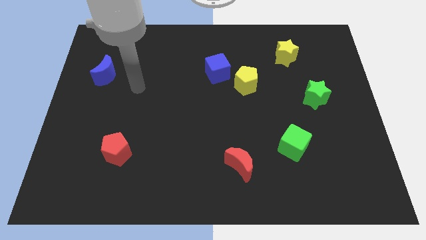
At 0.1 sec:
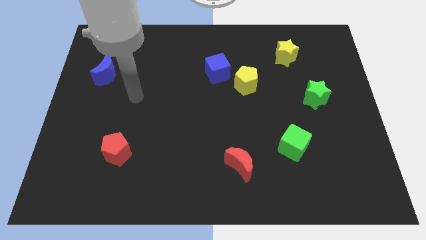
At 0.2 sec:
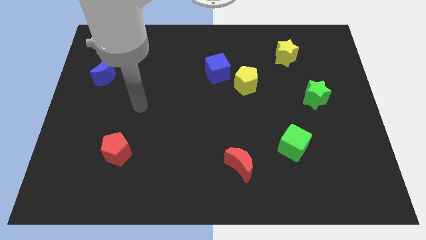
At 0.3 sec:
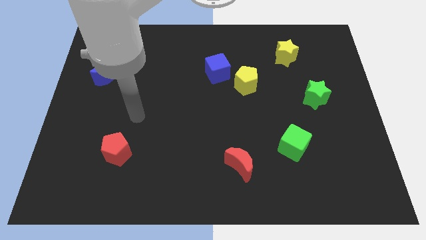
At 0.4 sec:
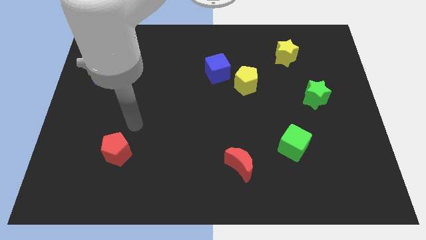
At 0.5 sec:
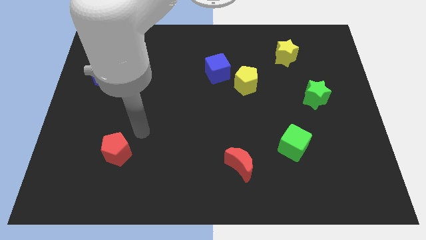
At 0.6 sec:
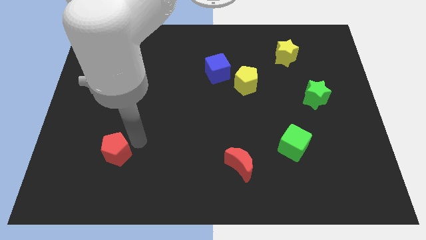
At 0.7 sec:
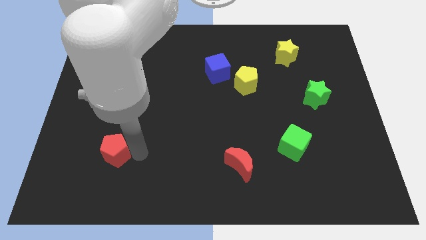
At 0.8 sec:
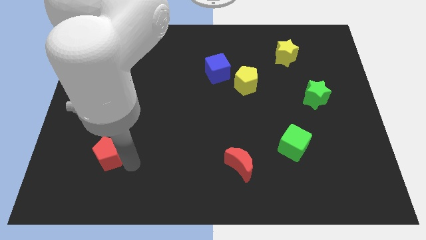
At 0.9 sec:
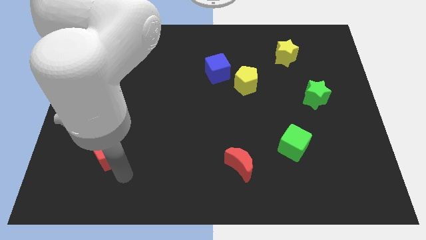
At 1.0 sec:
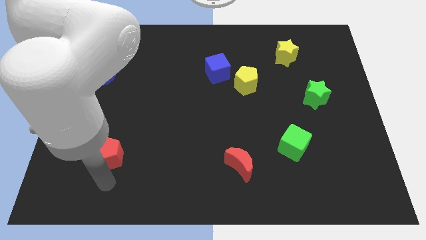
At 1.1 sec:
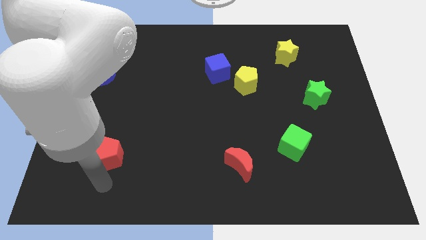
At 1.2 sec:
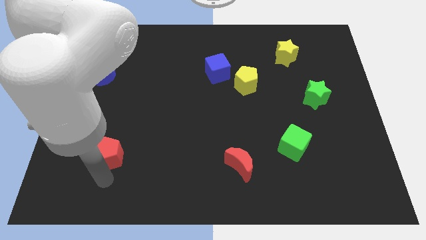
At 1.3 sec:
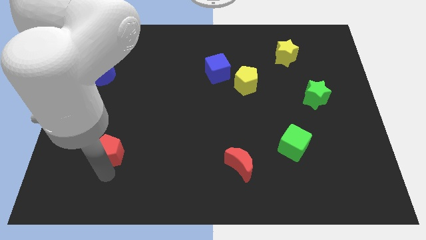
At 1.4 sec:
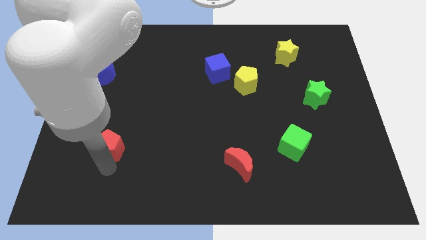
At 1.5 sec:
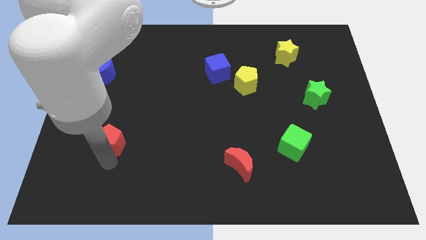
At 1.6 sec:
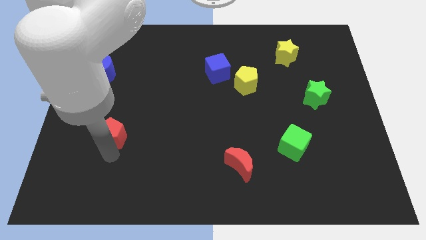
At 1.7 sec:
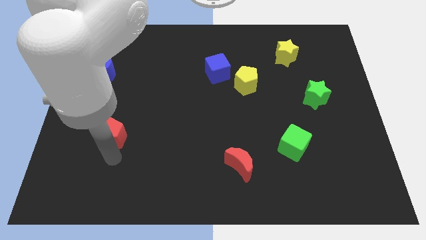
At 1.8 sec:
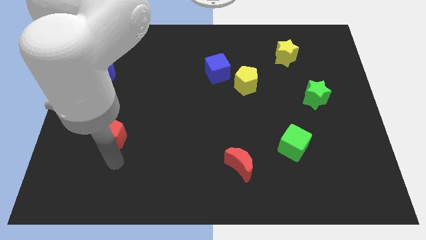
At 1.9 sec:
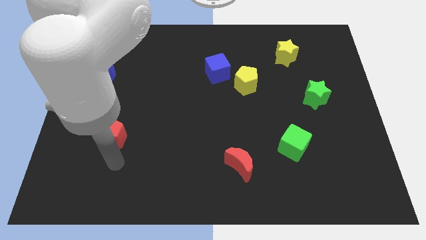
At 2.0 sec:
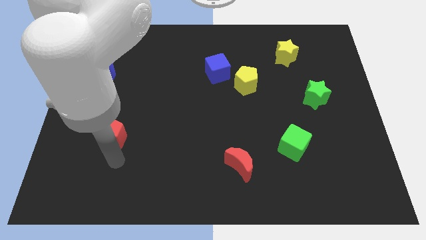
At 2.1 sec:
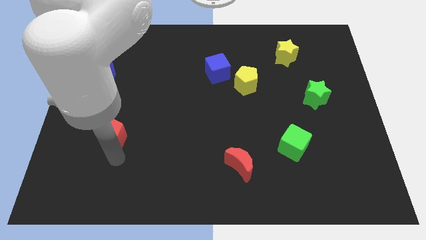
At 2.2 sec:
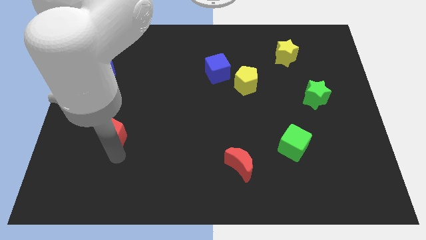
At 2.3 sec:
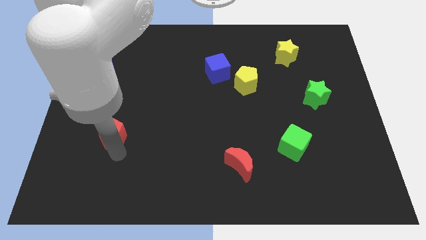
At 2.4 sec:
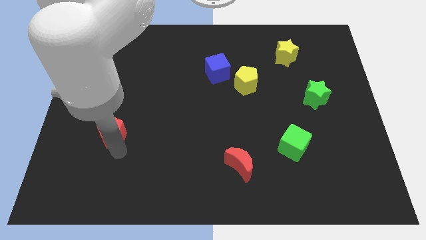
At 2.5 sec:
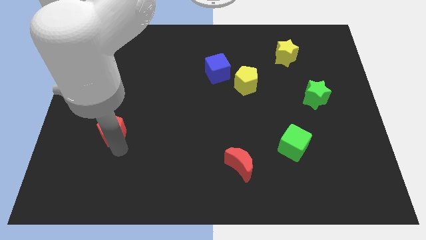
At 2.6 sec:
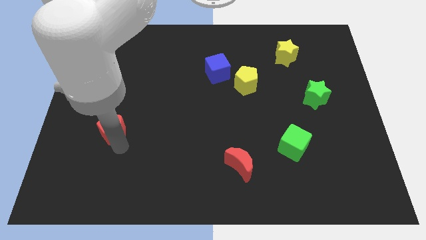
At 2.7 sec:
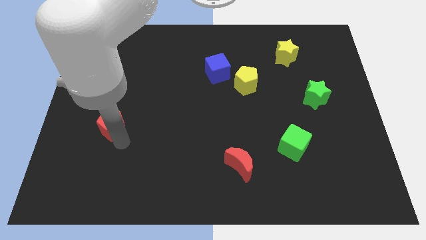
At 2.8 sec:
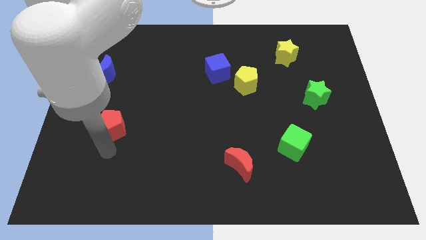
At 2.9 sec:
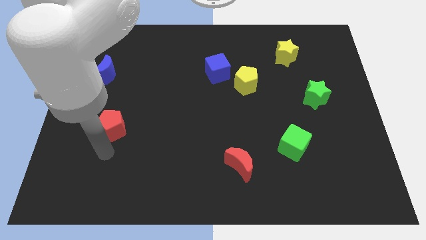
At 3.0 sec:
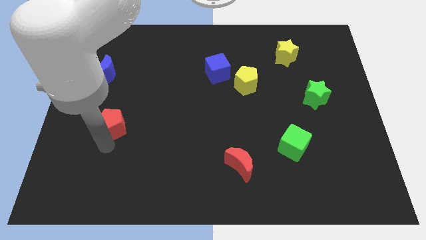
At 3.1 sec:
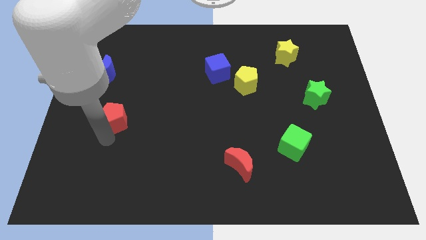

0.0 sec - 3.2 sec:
slightly push the red pentagon upwards

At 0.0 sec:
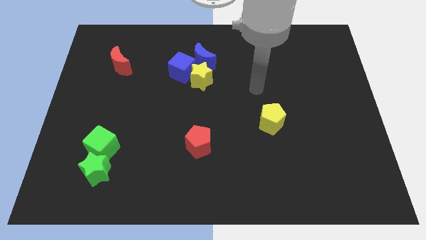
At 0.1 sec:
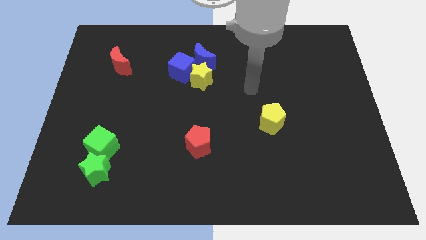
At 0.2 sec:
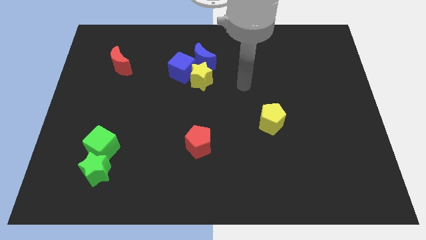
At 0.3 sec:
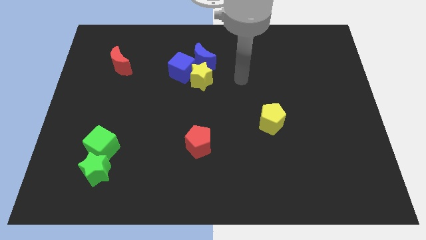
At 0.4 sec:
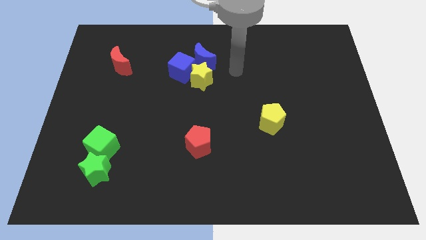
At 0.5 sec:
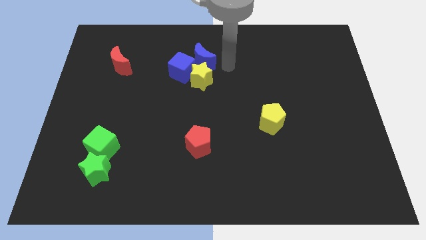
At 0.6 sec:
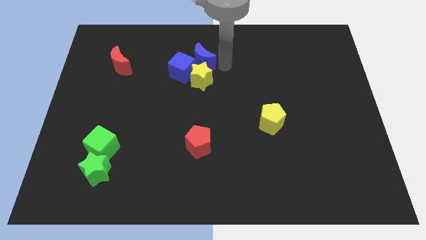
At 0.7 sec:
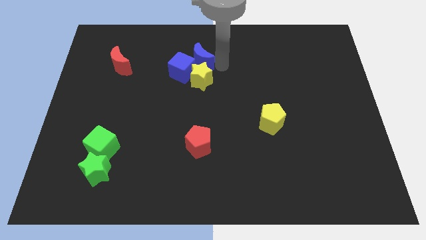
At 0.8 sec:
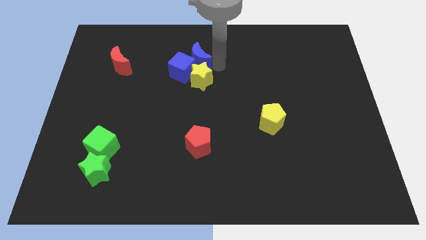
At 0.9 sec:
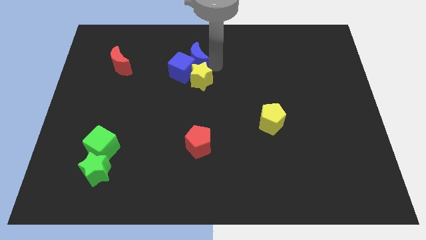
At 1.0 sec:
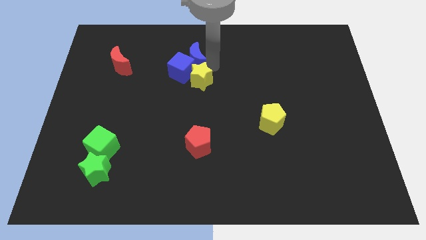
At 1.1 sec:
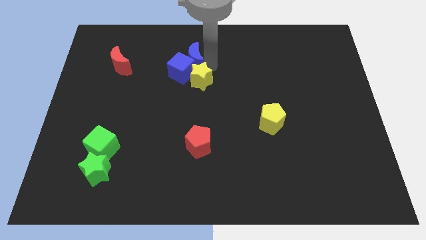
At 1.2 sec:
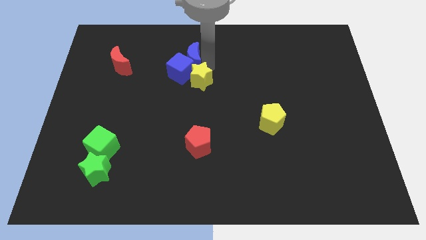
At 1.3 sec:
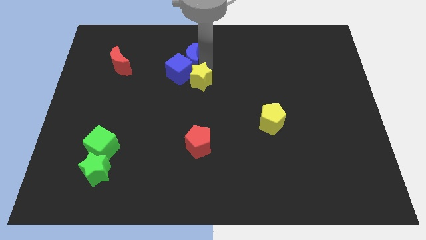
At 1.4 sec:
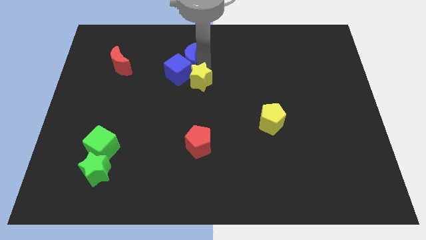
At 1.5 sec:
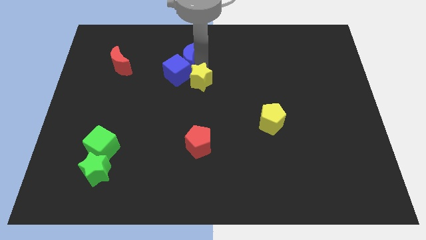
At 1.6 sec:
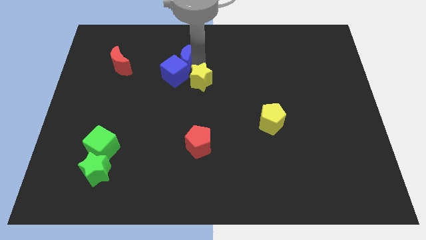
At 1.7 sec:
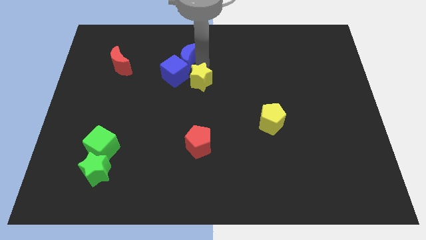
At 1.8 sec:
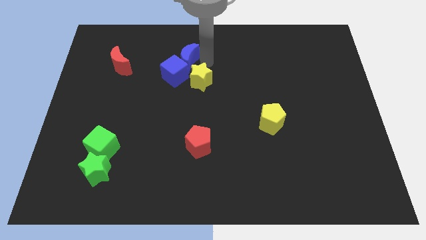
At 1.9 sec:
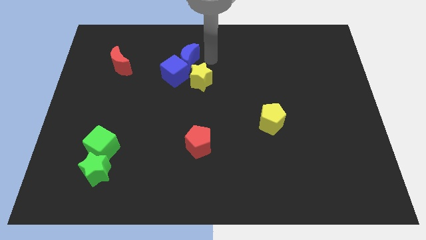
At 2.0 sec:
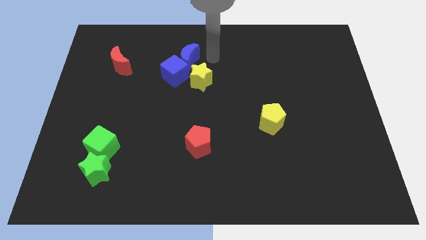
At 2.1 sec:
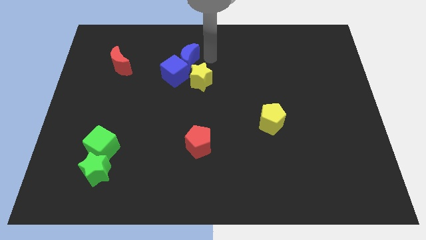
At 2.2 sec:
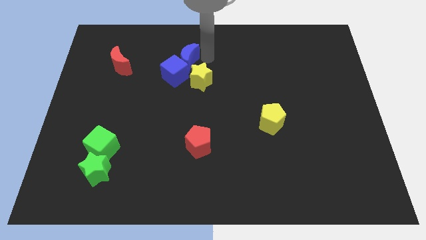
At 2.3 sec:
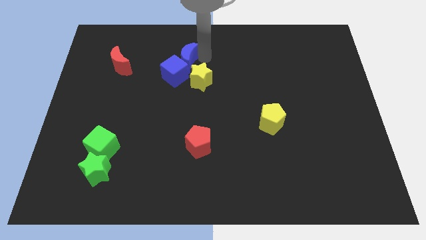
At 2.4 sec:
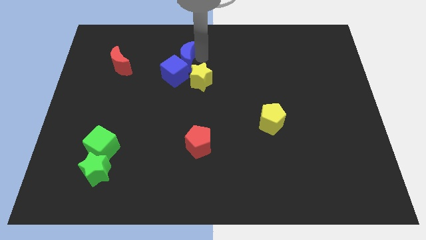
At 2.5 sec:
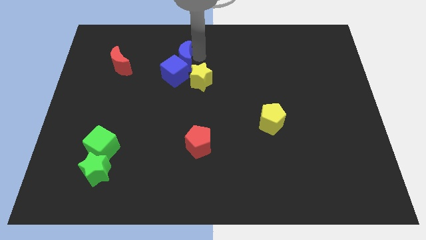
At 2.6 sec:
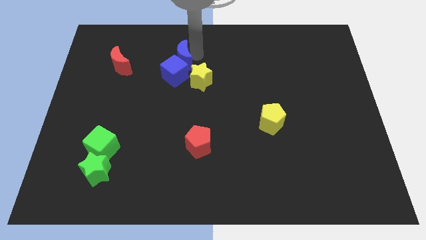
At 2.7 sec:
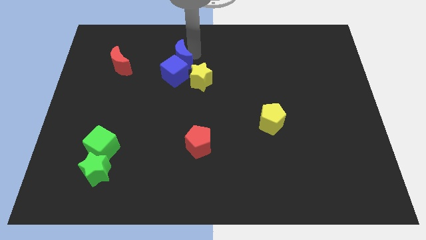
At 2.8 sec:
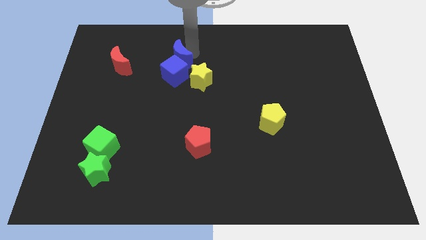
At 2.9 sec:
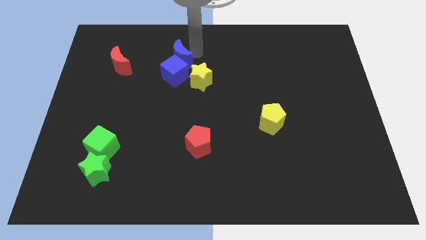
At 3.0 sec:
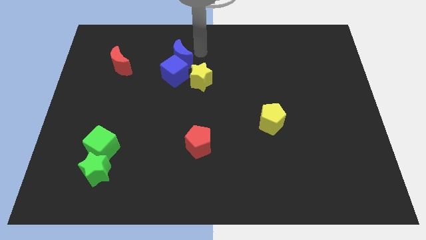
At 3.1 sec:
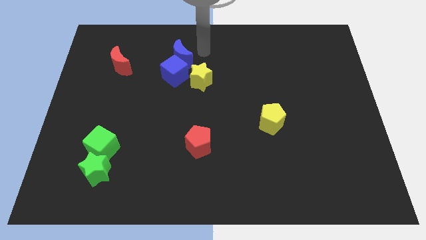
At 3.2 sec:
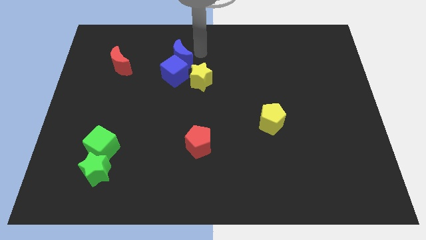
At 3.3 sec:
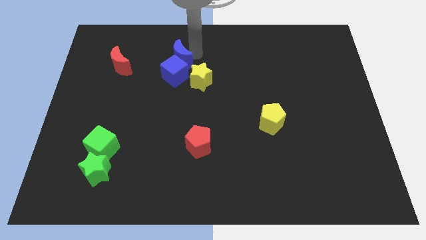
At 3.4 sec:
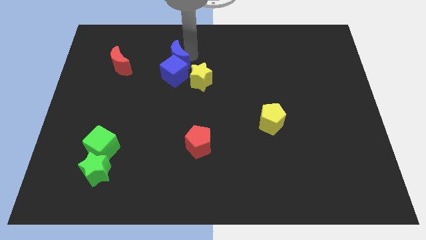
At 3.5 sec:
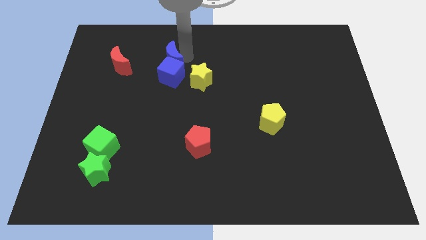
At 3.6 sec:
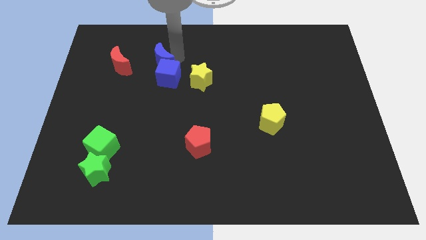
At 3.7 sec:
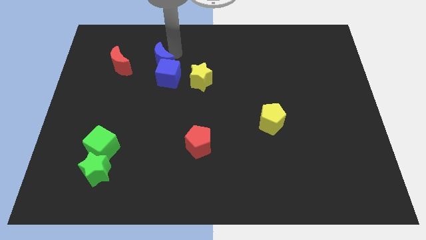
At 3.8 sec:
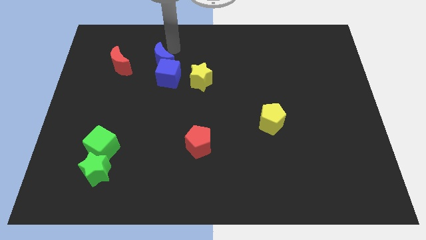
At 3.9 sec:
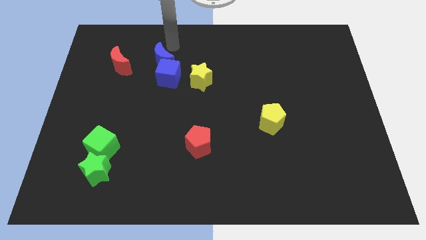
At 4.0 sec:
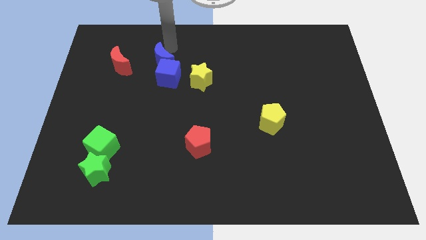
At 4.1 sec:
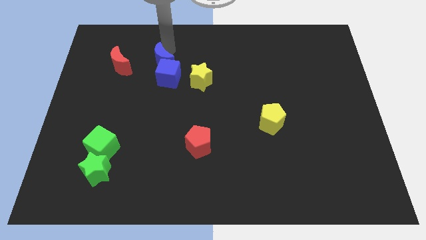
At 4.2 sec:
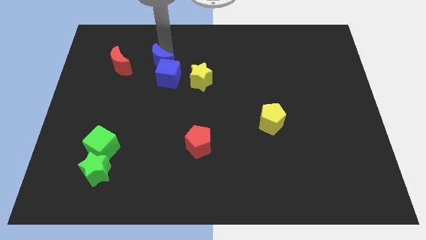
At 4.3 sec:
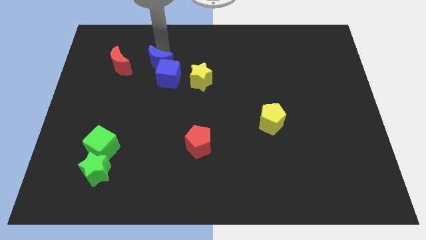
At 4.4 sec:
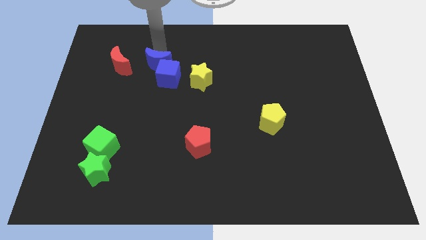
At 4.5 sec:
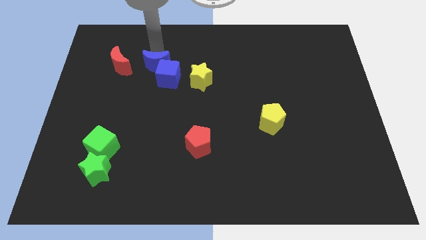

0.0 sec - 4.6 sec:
move the blue moon diagonally down and left slightly

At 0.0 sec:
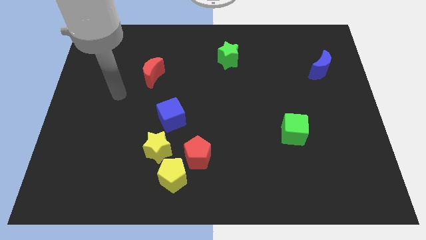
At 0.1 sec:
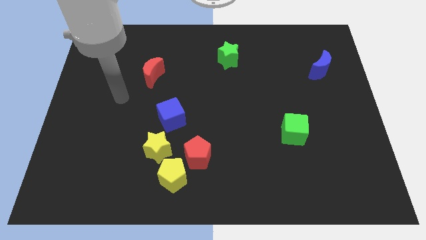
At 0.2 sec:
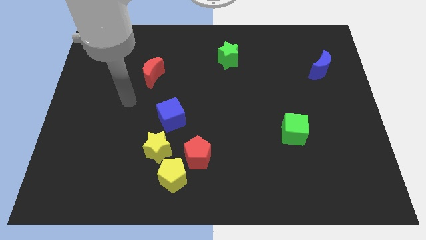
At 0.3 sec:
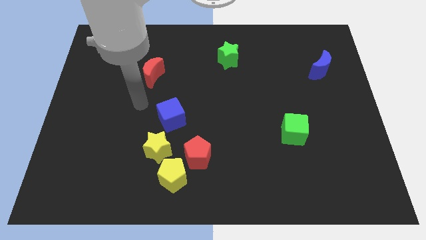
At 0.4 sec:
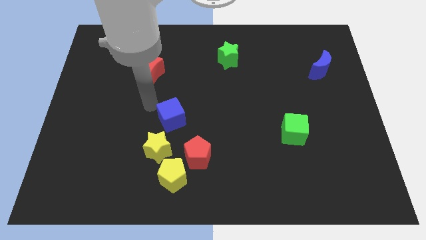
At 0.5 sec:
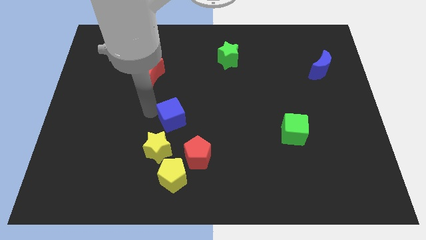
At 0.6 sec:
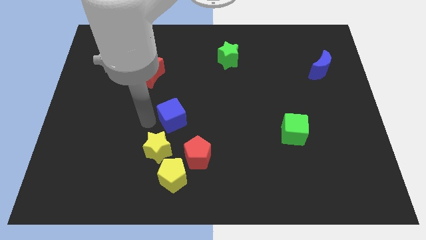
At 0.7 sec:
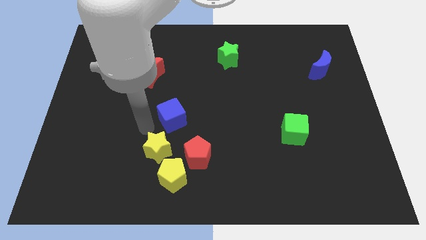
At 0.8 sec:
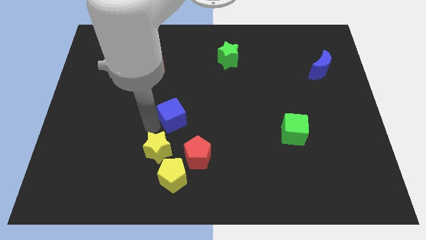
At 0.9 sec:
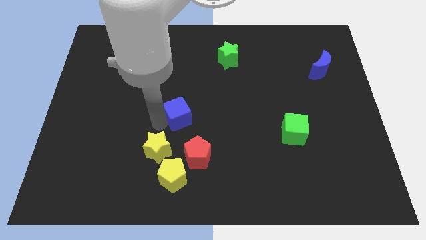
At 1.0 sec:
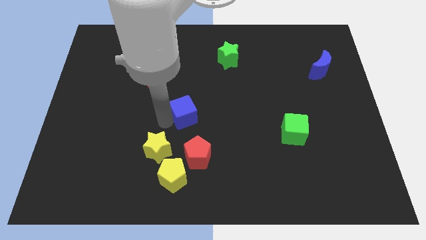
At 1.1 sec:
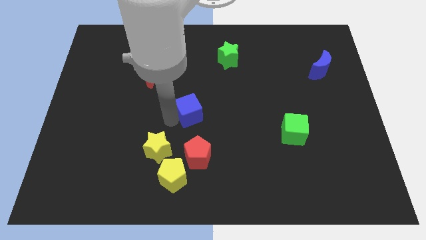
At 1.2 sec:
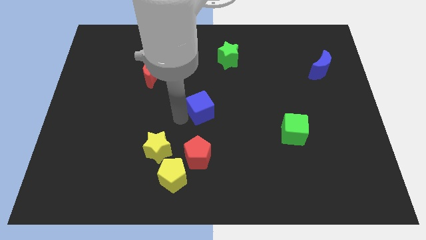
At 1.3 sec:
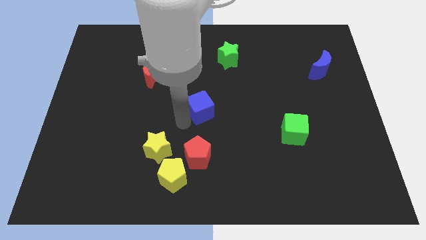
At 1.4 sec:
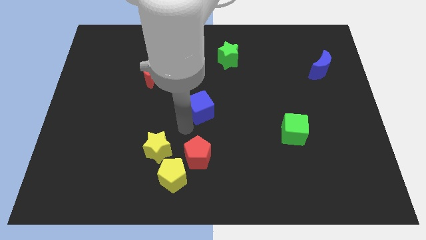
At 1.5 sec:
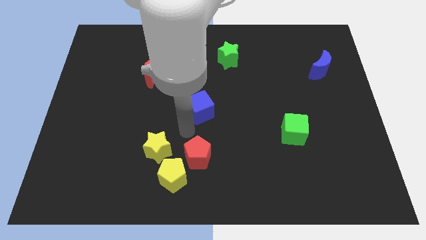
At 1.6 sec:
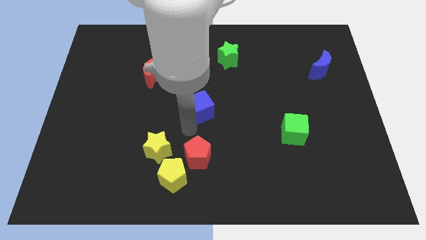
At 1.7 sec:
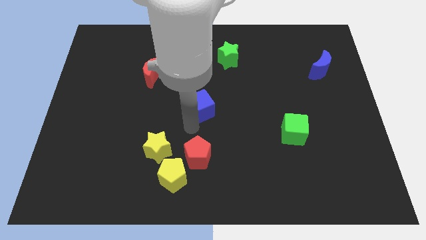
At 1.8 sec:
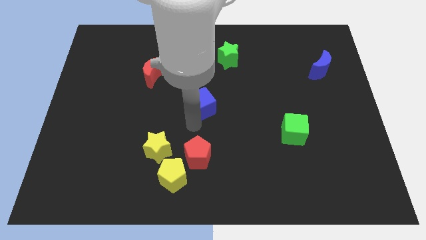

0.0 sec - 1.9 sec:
push the blue cube diagonally up and to the right a little bit
